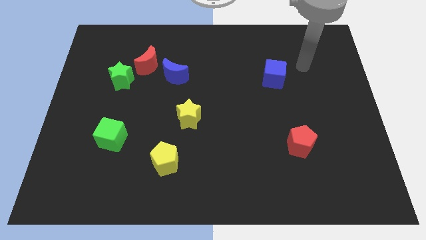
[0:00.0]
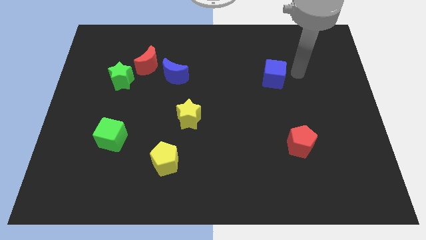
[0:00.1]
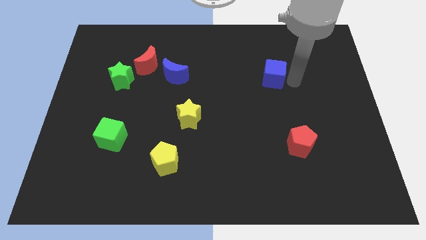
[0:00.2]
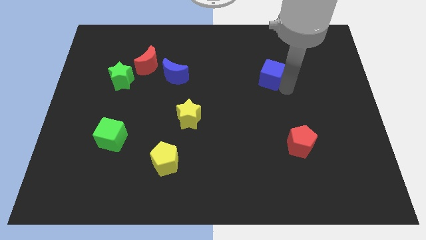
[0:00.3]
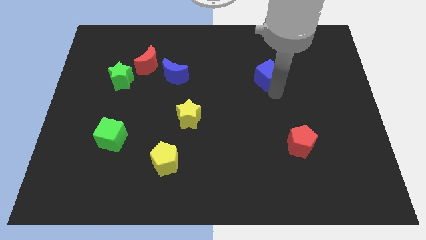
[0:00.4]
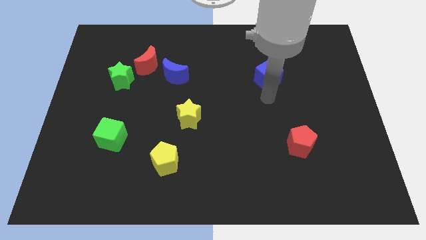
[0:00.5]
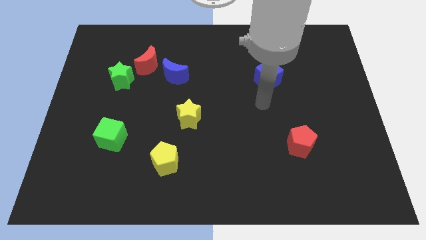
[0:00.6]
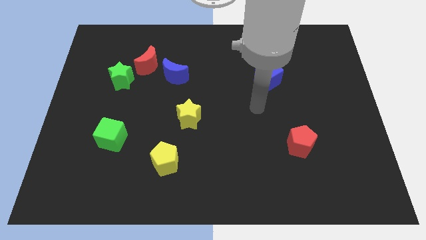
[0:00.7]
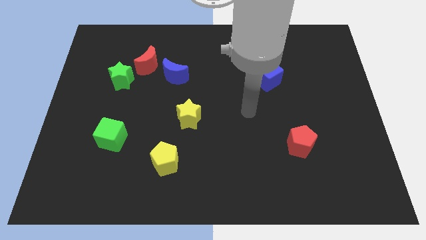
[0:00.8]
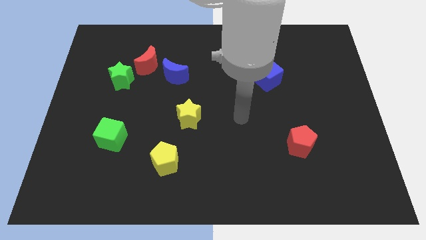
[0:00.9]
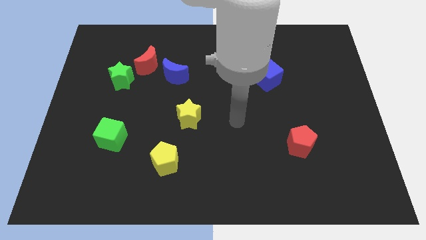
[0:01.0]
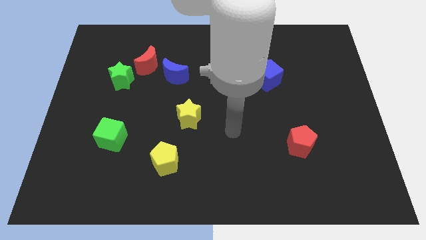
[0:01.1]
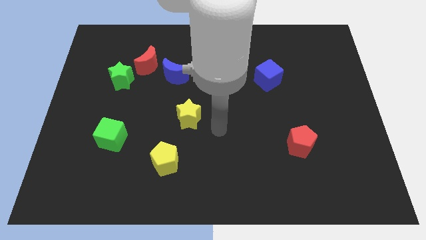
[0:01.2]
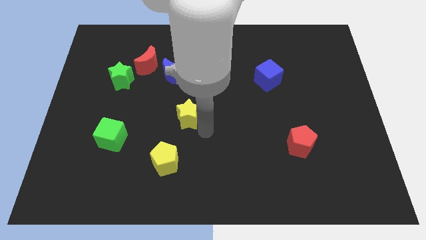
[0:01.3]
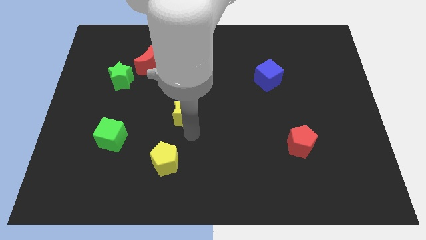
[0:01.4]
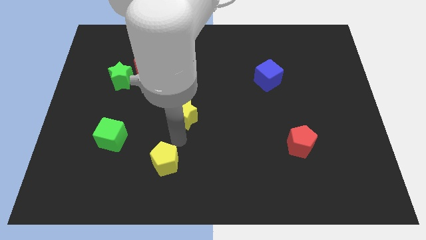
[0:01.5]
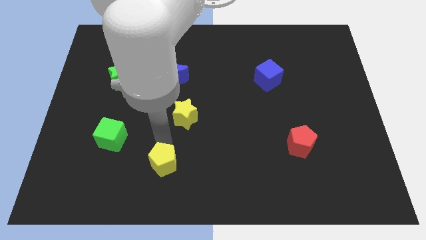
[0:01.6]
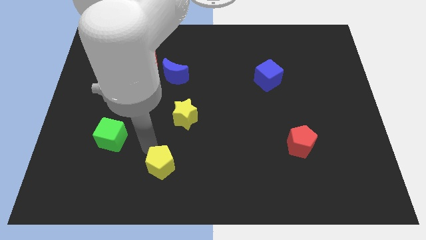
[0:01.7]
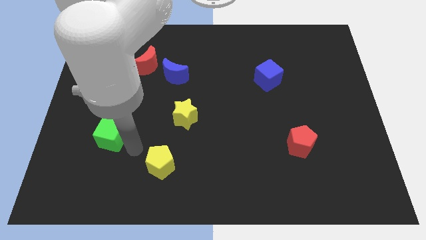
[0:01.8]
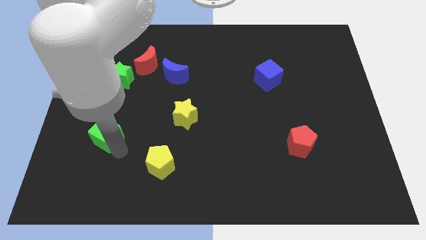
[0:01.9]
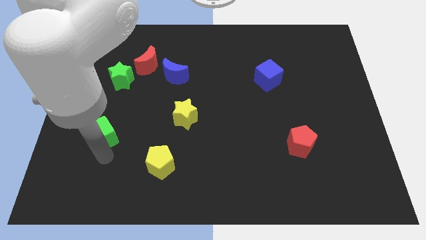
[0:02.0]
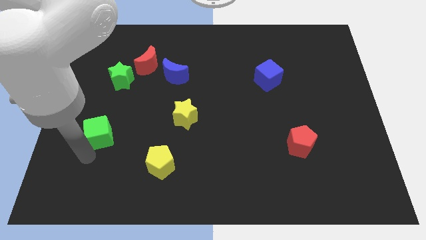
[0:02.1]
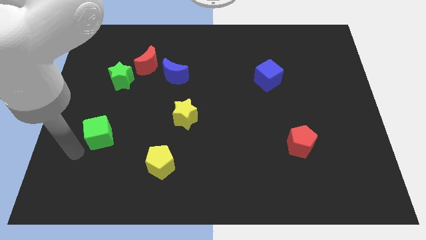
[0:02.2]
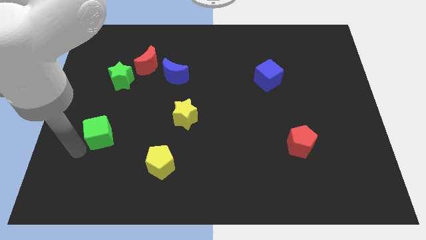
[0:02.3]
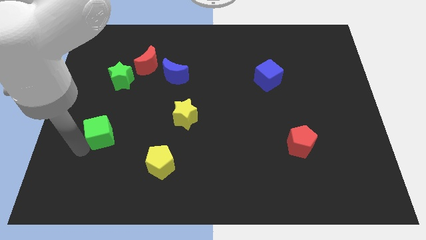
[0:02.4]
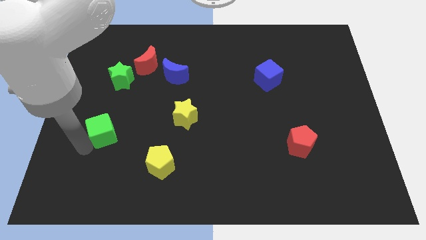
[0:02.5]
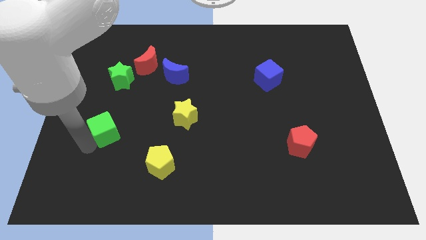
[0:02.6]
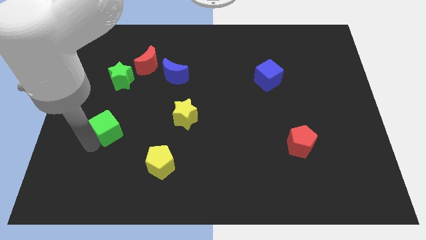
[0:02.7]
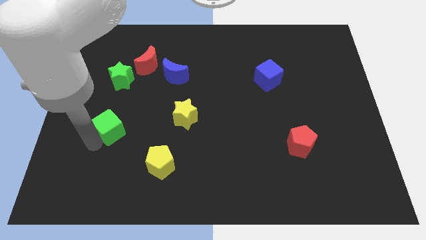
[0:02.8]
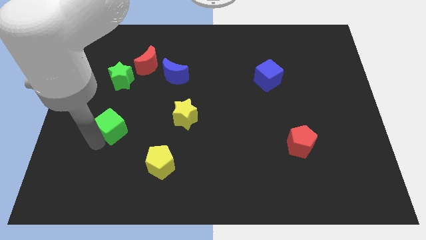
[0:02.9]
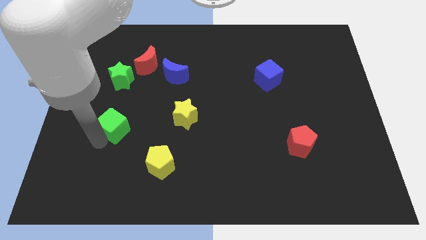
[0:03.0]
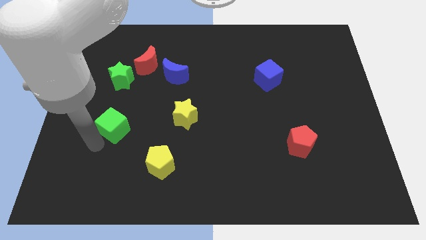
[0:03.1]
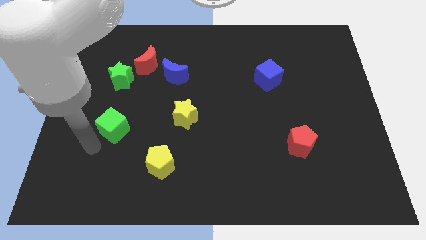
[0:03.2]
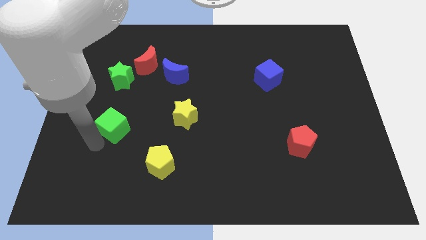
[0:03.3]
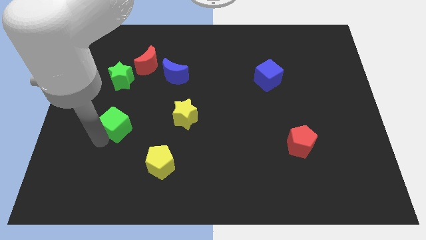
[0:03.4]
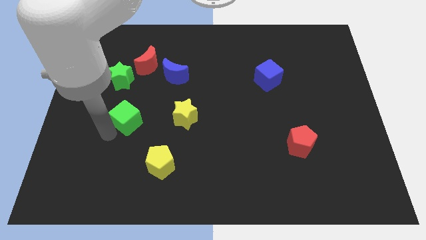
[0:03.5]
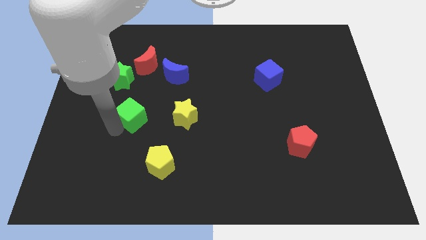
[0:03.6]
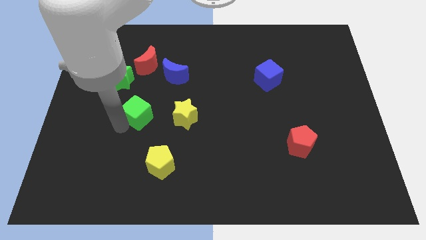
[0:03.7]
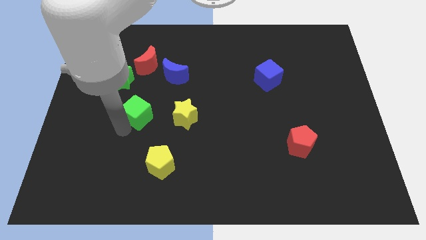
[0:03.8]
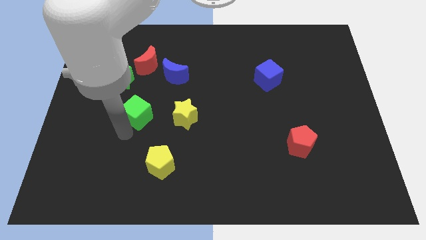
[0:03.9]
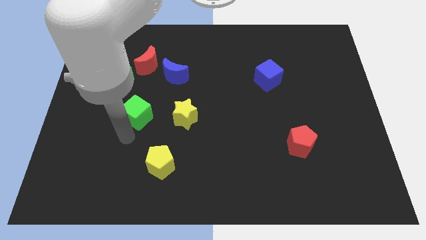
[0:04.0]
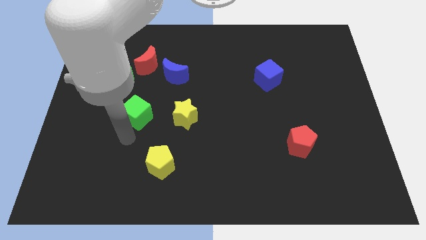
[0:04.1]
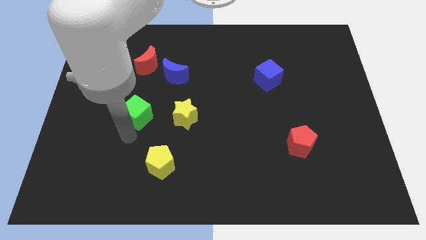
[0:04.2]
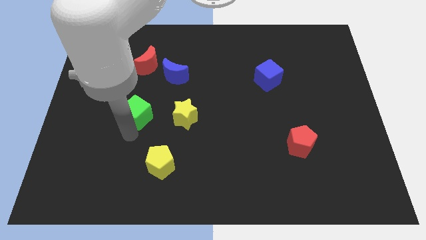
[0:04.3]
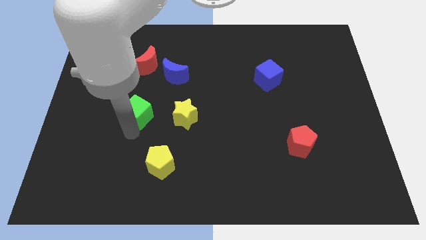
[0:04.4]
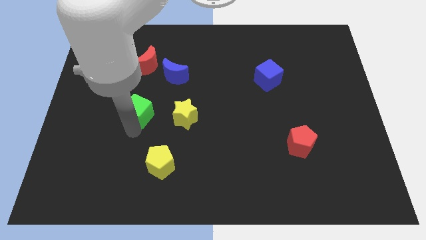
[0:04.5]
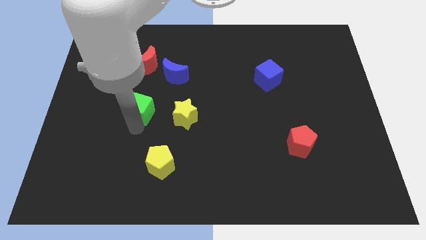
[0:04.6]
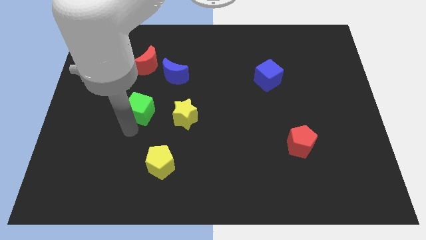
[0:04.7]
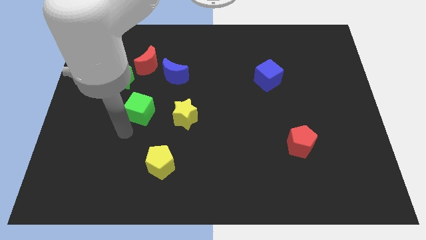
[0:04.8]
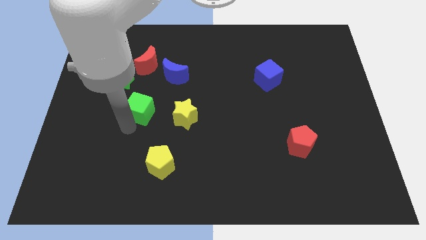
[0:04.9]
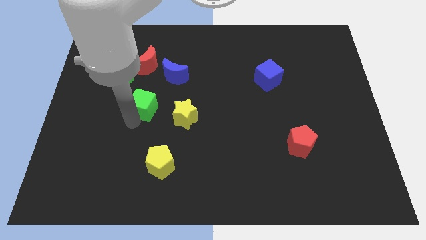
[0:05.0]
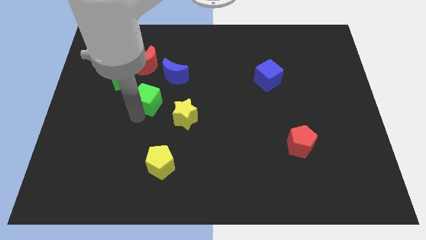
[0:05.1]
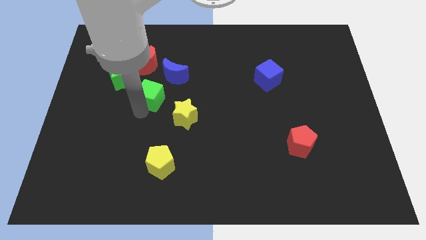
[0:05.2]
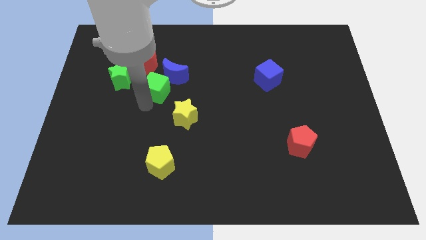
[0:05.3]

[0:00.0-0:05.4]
slide the green cube next to the blue moon

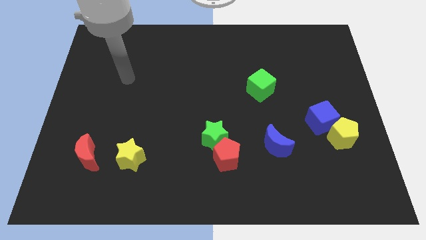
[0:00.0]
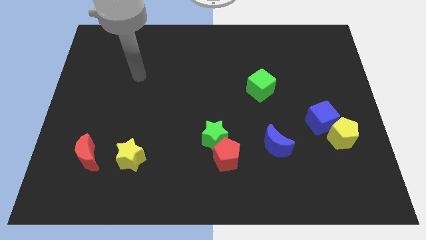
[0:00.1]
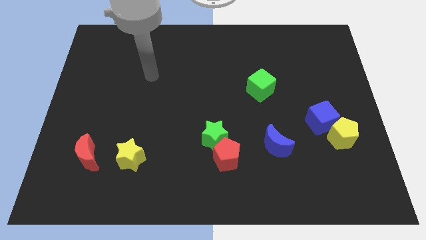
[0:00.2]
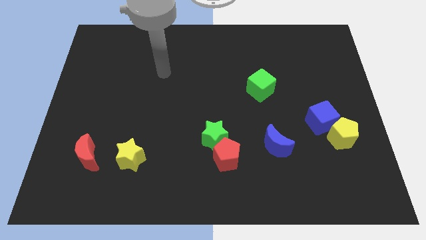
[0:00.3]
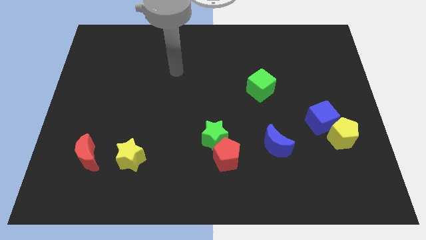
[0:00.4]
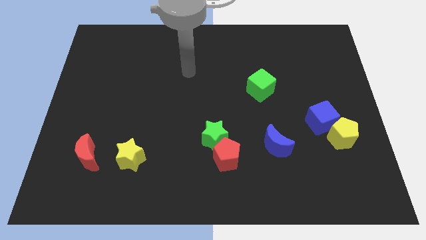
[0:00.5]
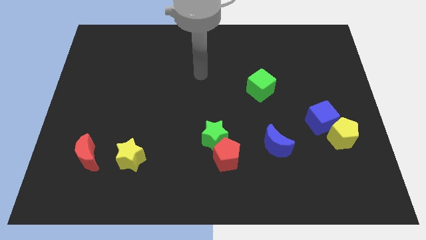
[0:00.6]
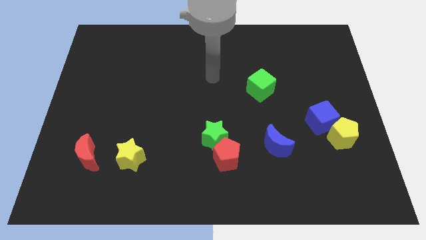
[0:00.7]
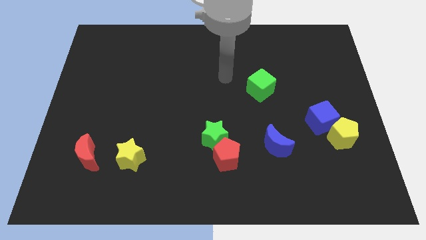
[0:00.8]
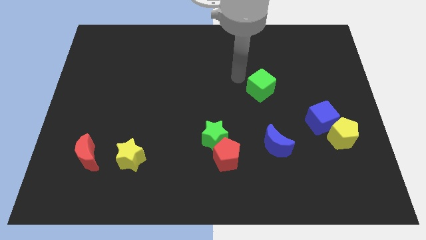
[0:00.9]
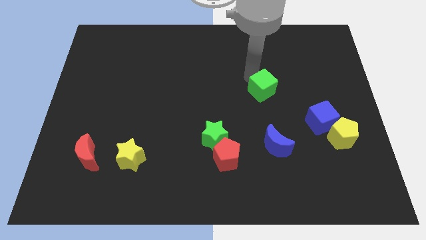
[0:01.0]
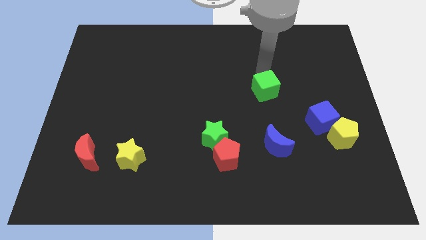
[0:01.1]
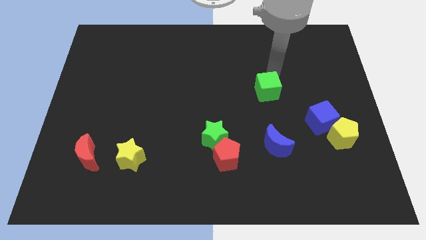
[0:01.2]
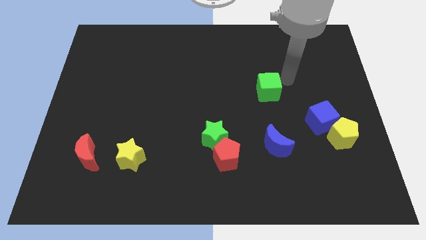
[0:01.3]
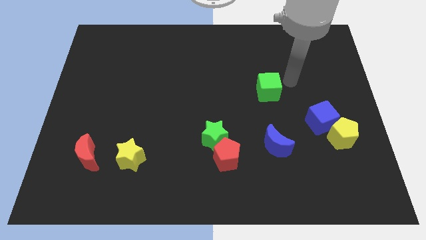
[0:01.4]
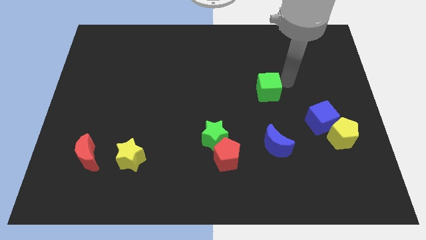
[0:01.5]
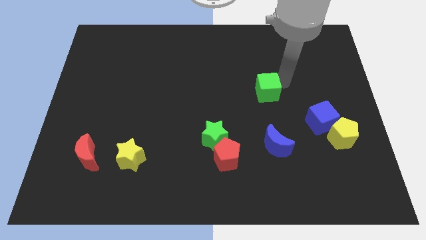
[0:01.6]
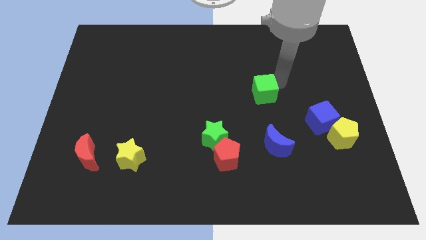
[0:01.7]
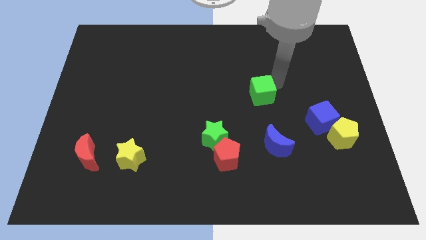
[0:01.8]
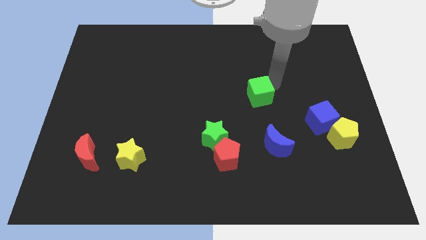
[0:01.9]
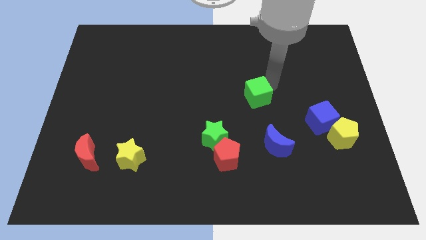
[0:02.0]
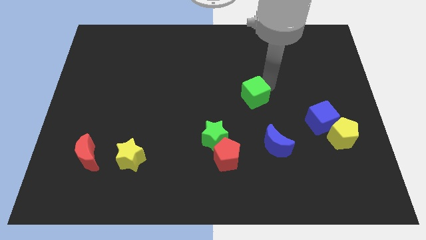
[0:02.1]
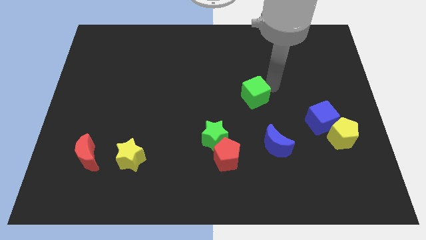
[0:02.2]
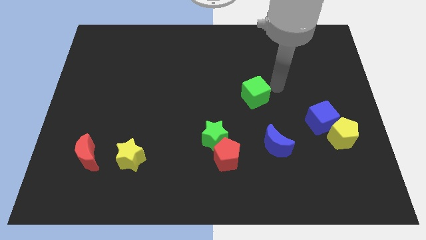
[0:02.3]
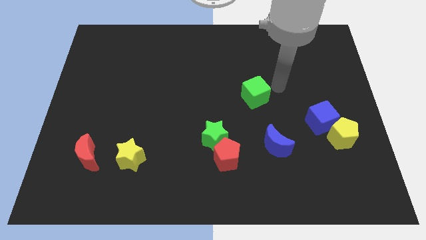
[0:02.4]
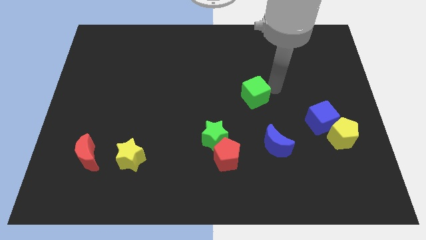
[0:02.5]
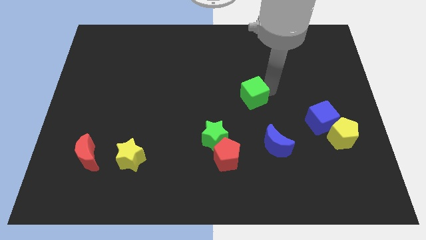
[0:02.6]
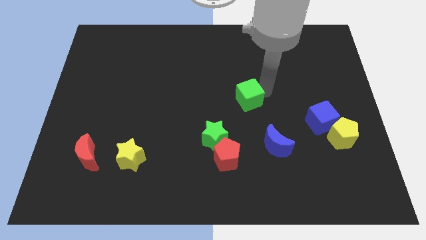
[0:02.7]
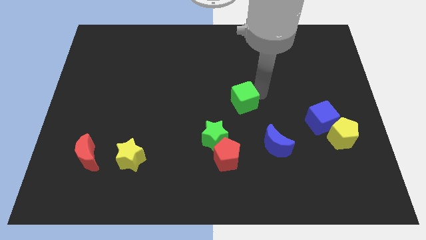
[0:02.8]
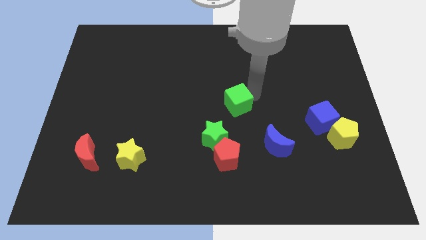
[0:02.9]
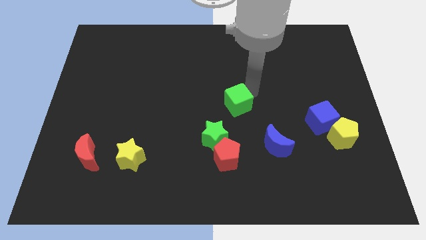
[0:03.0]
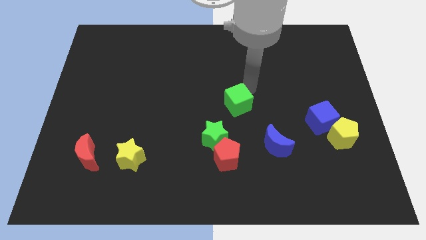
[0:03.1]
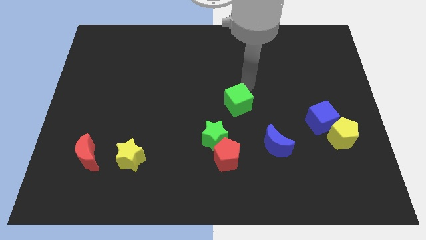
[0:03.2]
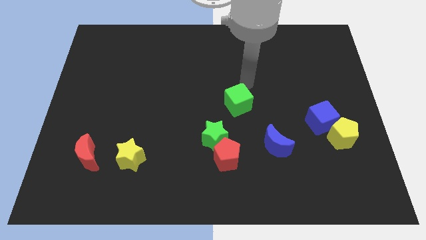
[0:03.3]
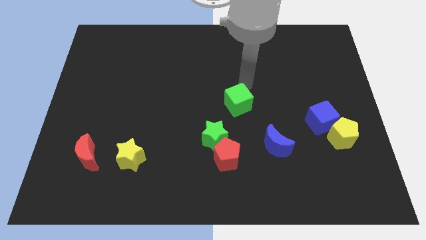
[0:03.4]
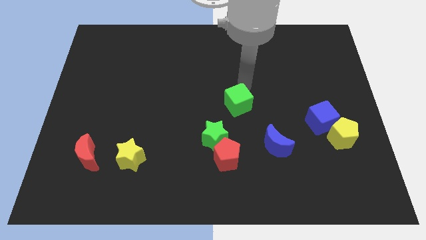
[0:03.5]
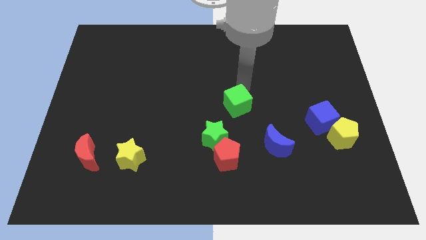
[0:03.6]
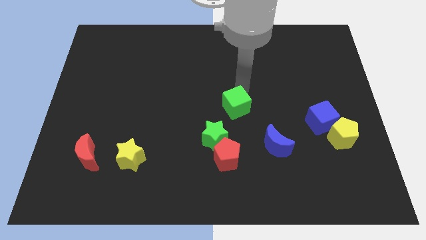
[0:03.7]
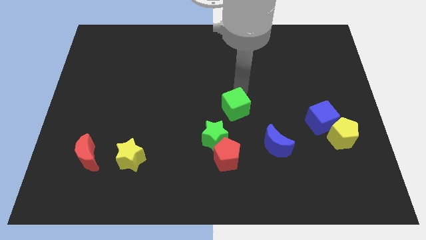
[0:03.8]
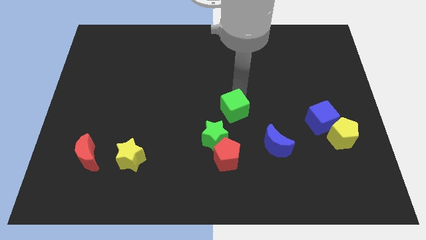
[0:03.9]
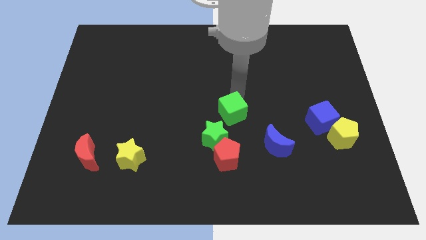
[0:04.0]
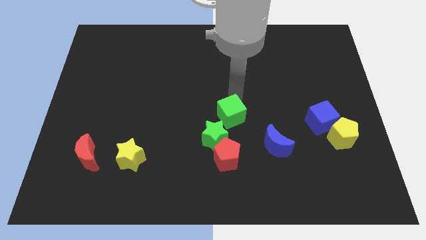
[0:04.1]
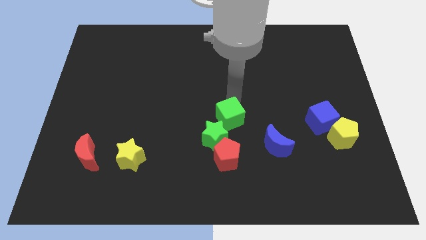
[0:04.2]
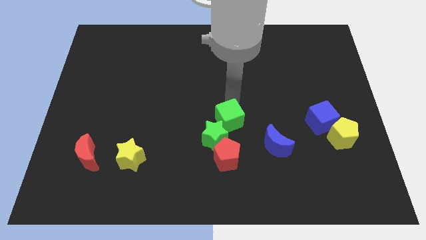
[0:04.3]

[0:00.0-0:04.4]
move the green cube close to the green star
